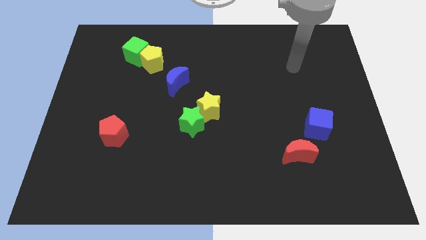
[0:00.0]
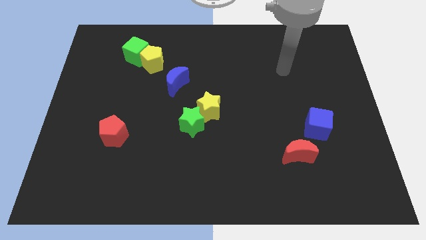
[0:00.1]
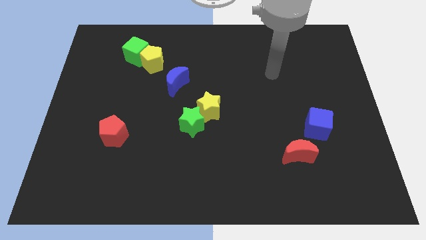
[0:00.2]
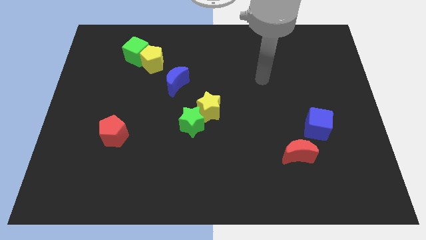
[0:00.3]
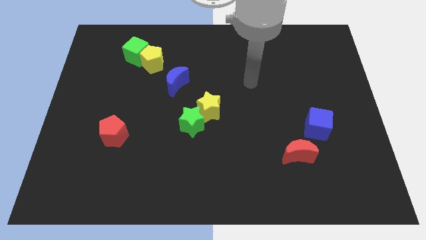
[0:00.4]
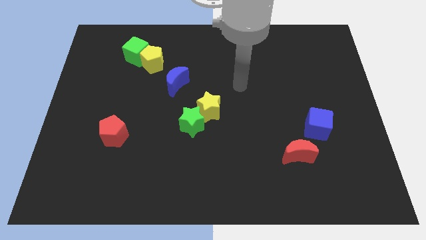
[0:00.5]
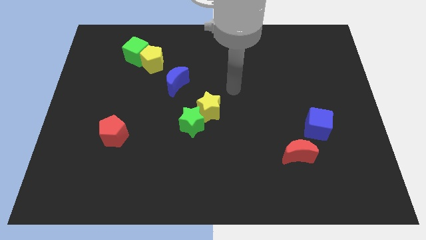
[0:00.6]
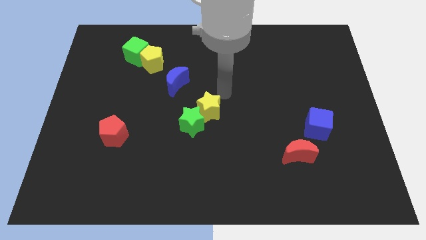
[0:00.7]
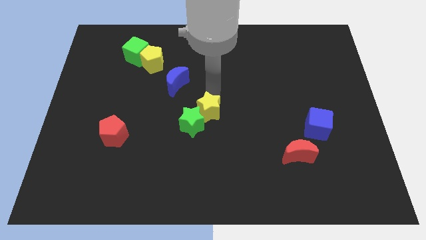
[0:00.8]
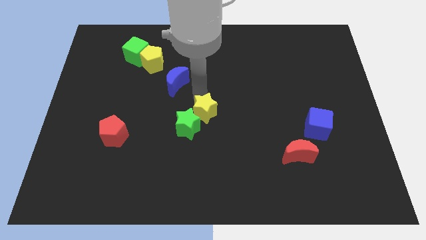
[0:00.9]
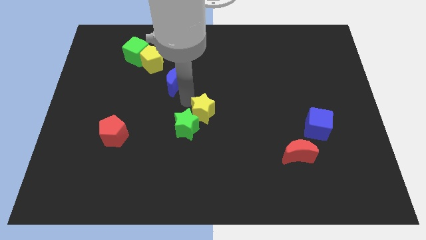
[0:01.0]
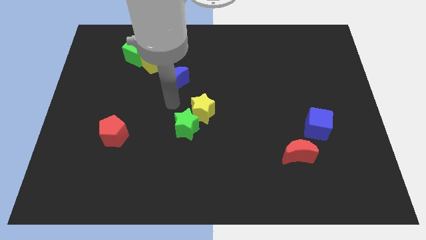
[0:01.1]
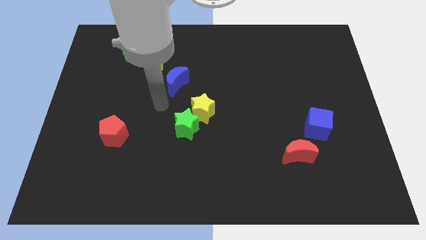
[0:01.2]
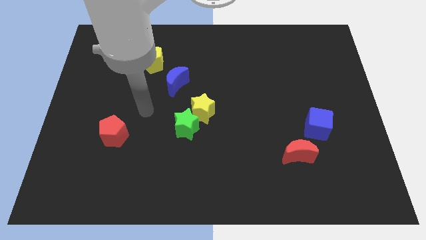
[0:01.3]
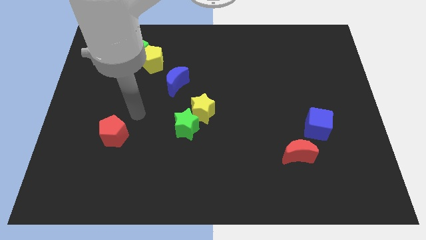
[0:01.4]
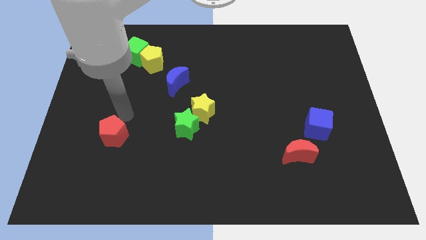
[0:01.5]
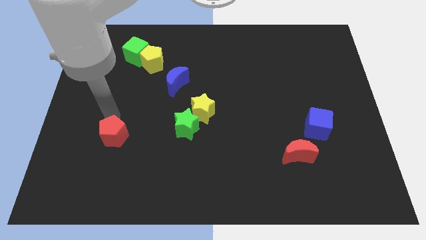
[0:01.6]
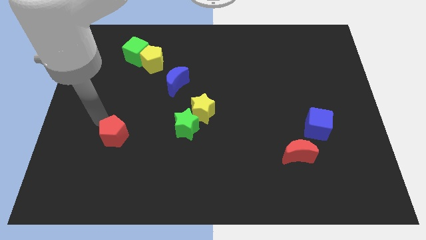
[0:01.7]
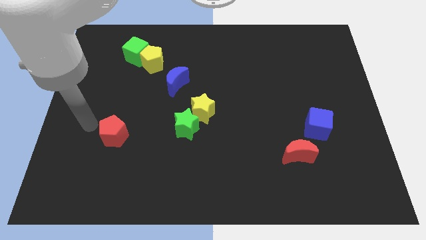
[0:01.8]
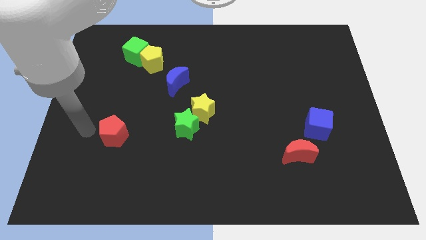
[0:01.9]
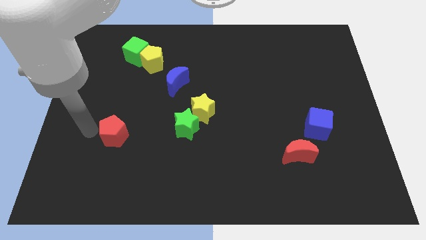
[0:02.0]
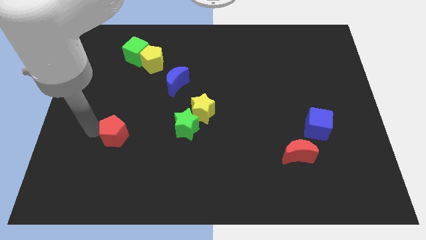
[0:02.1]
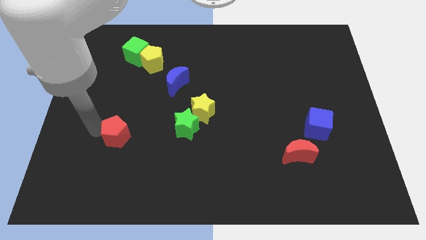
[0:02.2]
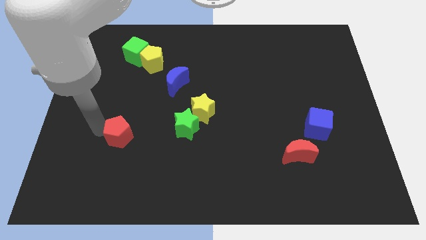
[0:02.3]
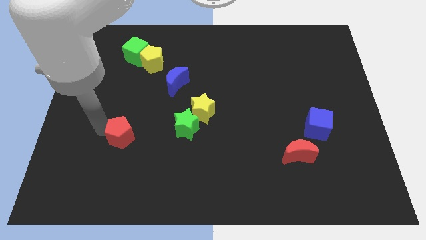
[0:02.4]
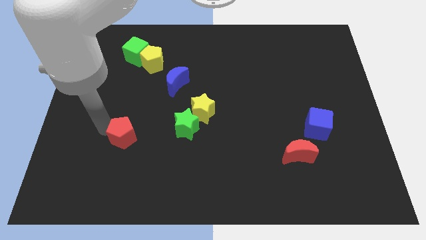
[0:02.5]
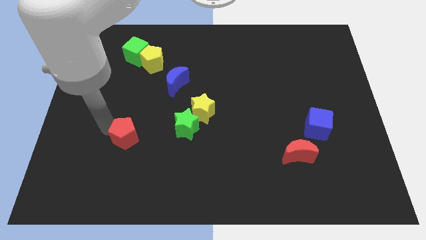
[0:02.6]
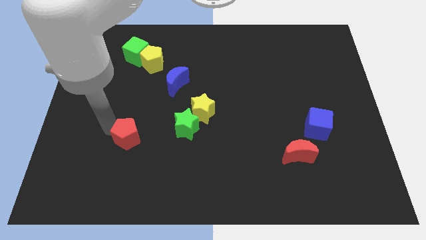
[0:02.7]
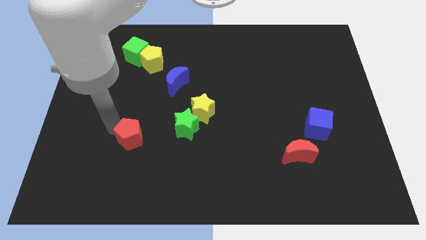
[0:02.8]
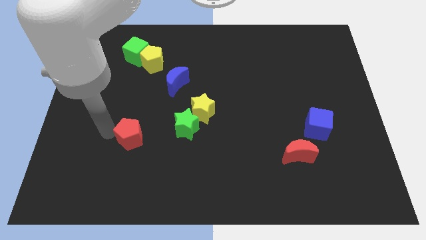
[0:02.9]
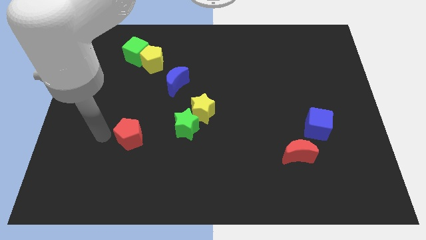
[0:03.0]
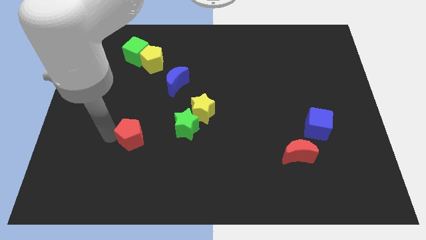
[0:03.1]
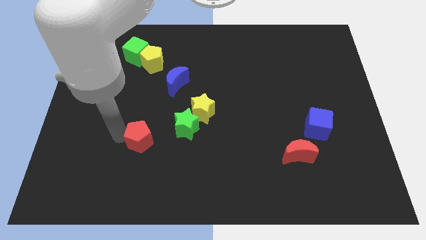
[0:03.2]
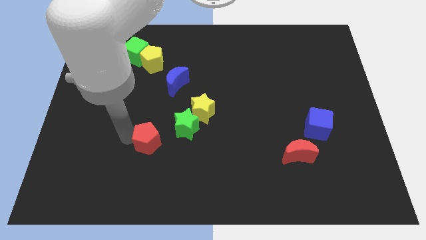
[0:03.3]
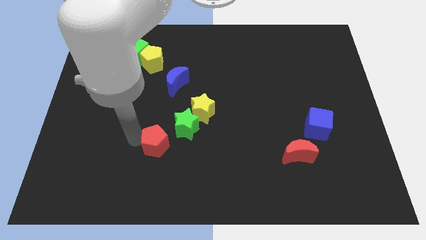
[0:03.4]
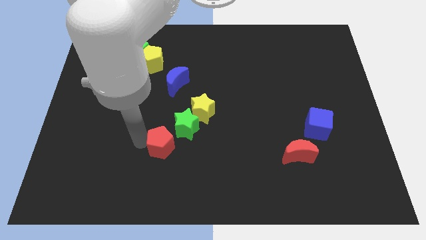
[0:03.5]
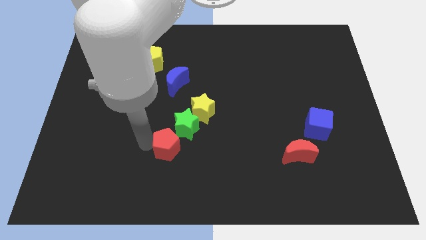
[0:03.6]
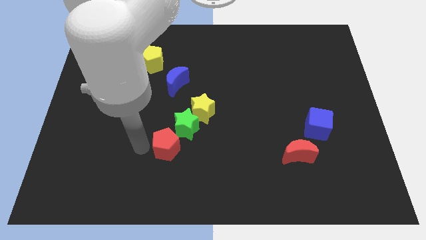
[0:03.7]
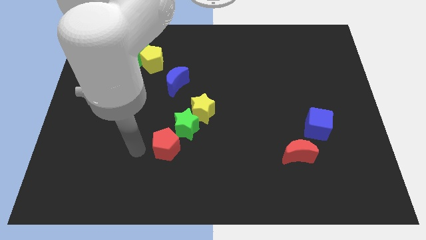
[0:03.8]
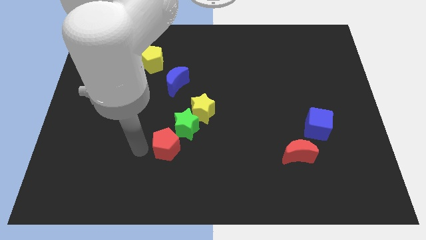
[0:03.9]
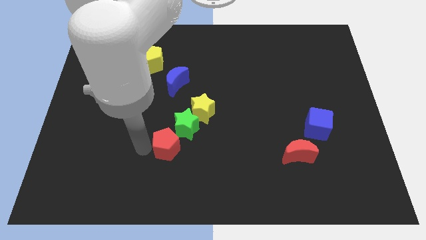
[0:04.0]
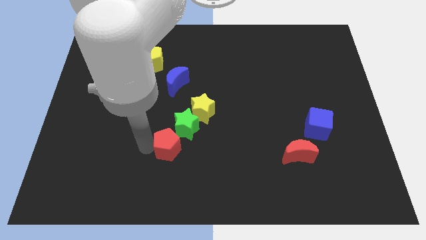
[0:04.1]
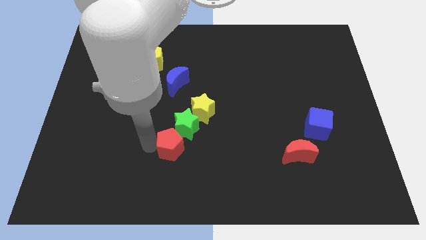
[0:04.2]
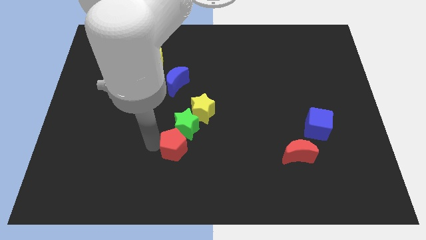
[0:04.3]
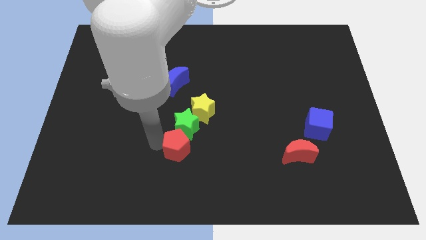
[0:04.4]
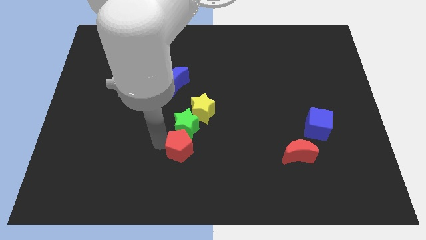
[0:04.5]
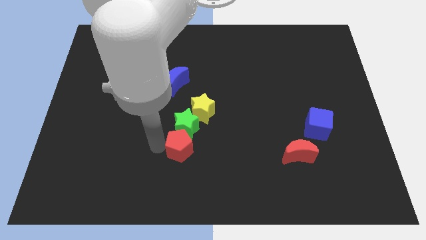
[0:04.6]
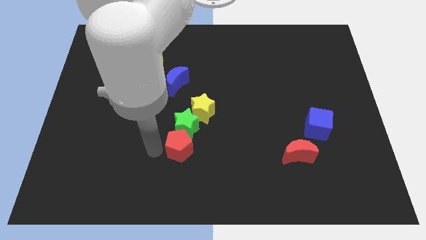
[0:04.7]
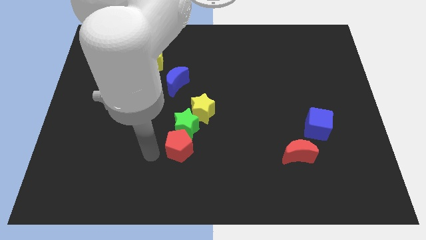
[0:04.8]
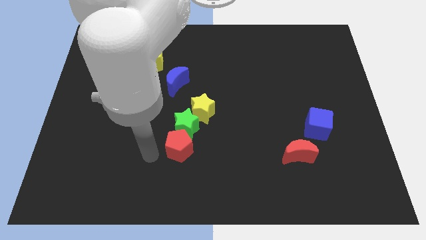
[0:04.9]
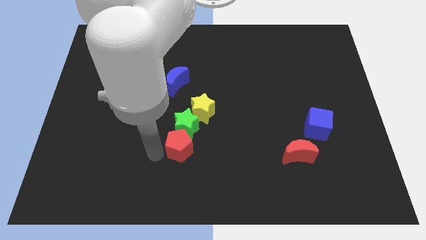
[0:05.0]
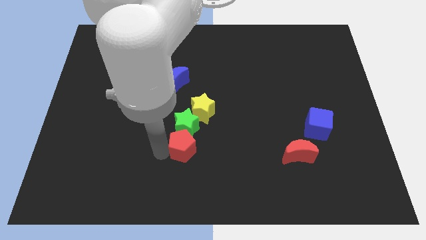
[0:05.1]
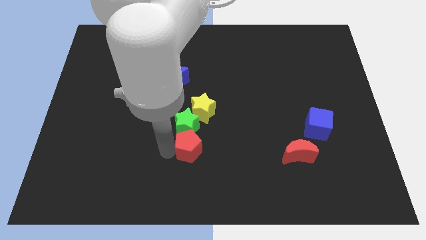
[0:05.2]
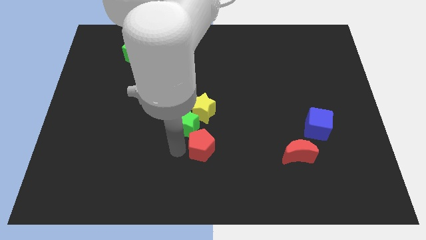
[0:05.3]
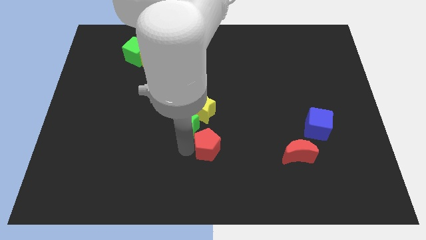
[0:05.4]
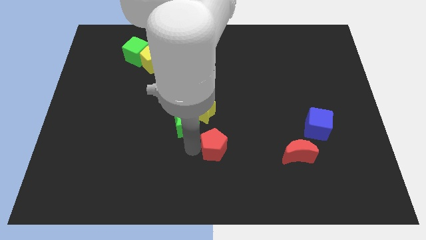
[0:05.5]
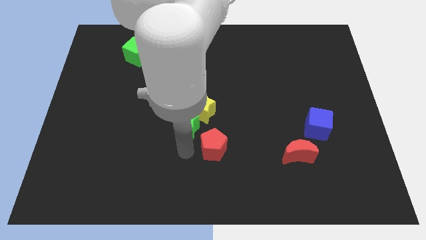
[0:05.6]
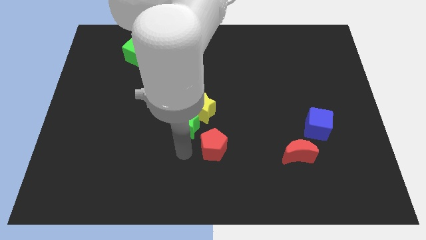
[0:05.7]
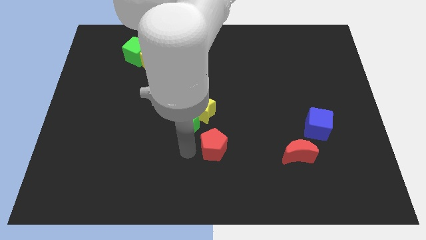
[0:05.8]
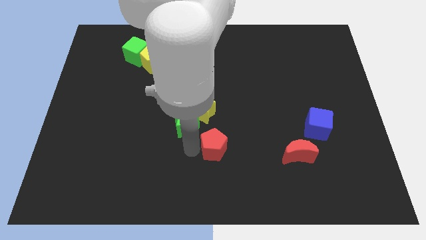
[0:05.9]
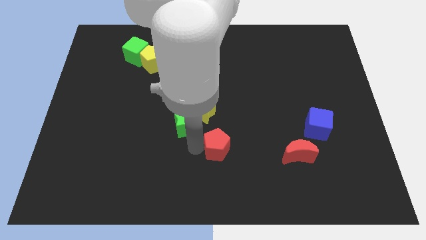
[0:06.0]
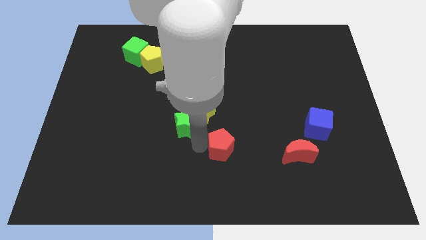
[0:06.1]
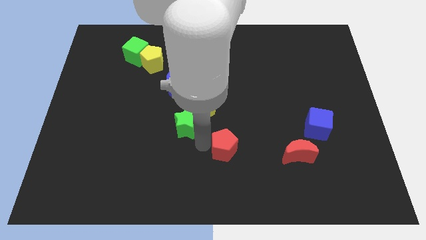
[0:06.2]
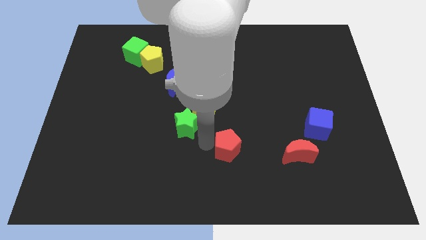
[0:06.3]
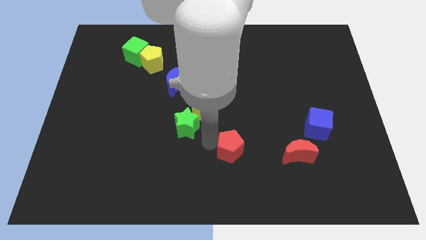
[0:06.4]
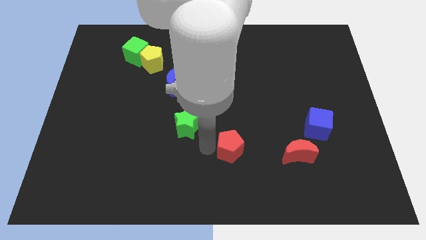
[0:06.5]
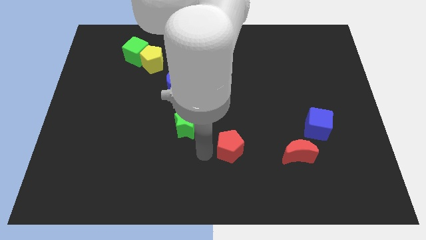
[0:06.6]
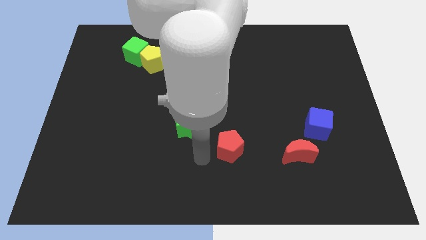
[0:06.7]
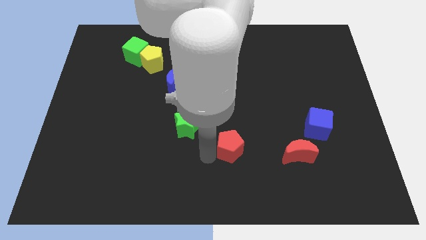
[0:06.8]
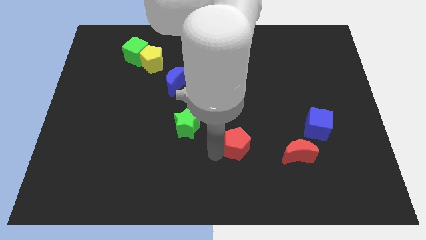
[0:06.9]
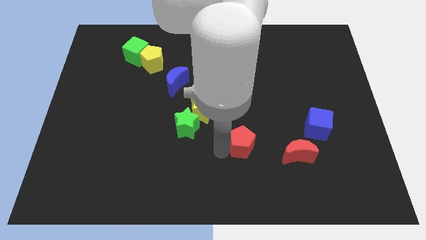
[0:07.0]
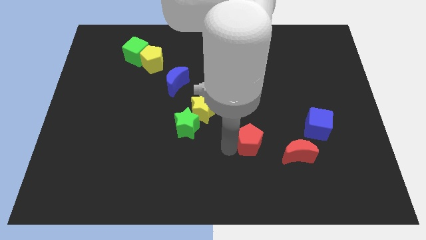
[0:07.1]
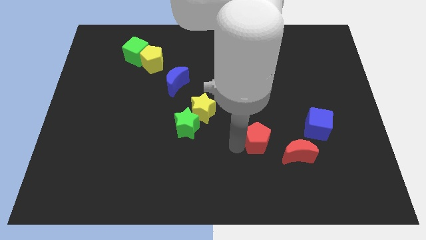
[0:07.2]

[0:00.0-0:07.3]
slide the red pentagon diagonally up and to the left of the red moon
